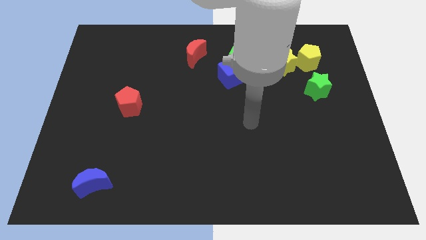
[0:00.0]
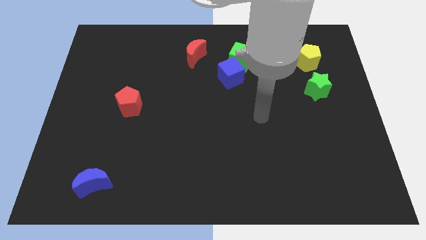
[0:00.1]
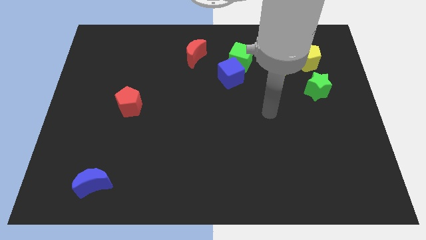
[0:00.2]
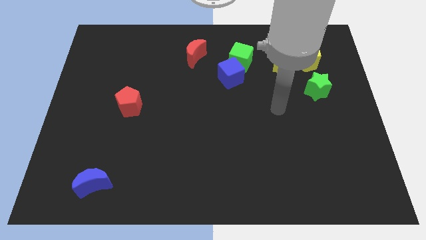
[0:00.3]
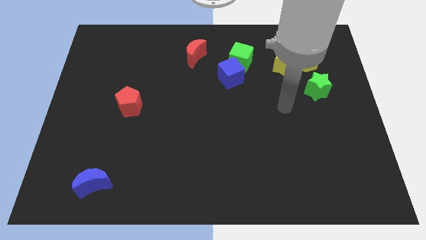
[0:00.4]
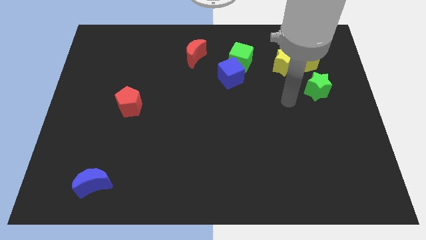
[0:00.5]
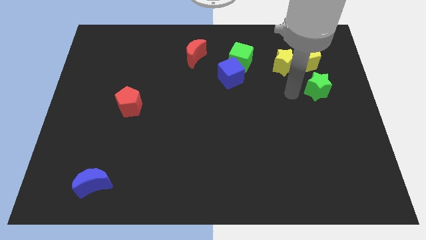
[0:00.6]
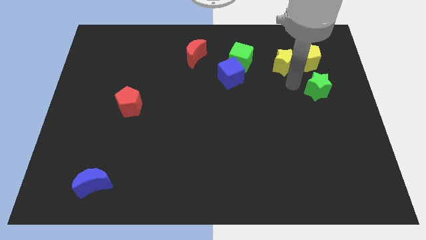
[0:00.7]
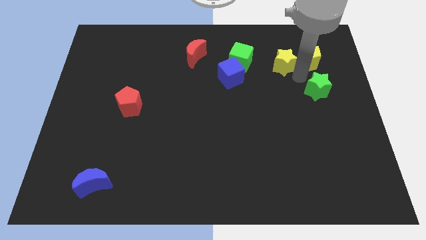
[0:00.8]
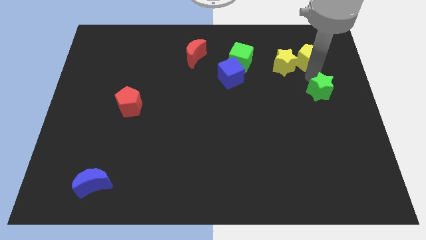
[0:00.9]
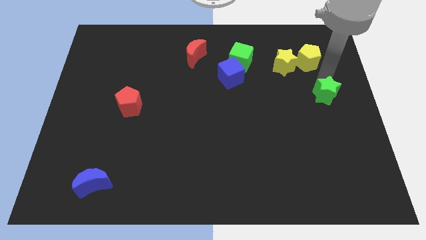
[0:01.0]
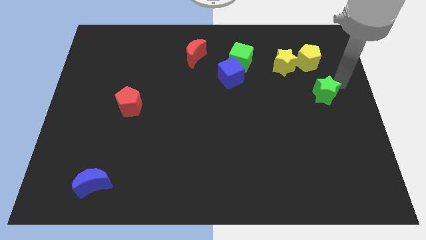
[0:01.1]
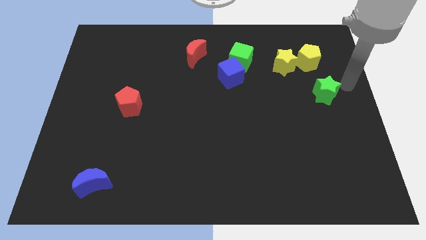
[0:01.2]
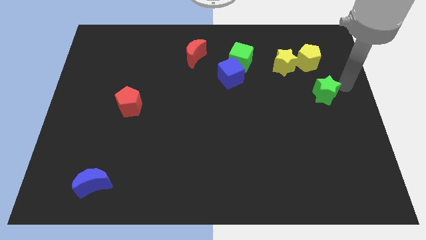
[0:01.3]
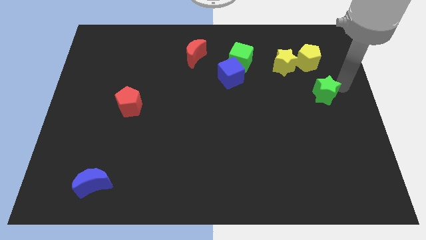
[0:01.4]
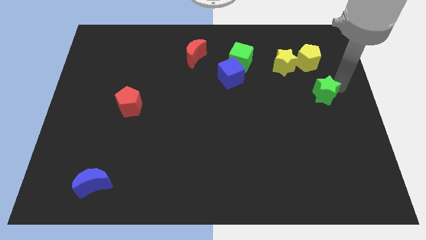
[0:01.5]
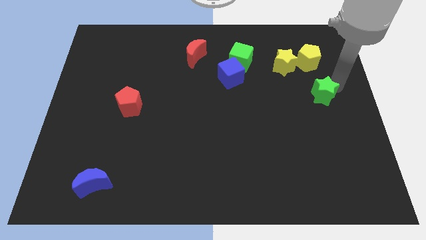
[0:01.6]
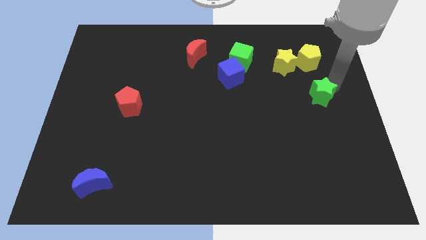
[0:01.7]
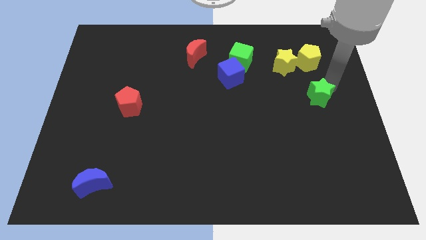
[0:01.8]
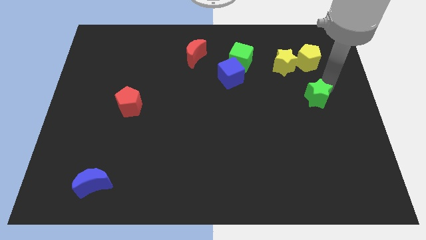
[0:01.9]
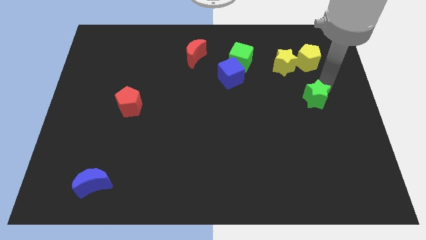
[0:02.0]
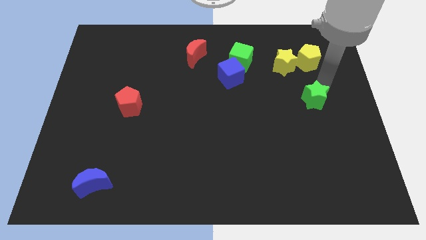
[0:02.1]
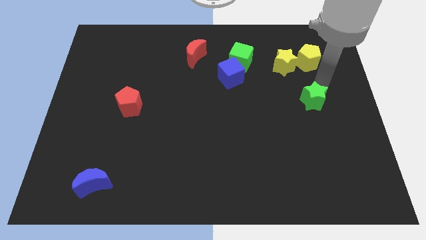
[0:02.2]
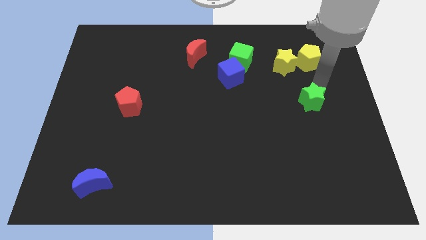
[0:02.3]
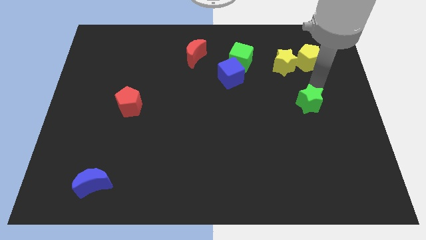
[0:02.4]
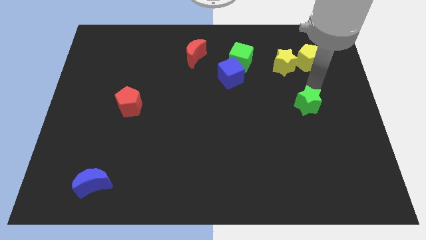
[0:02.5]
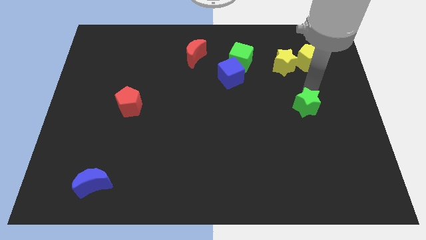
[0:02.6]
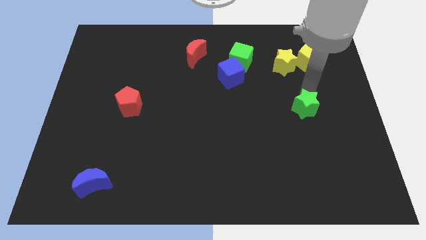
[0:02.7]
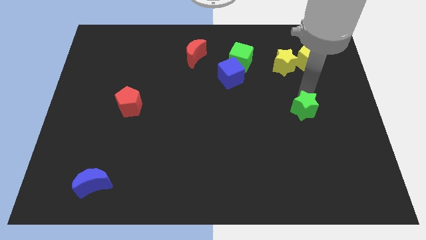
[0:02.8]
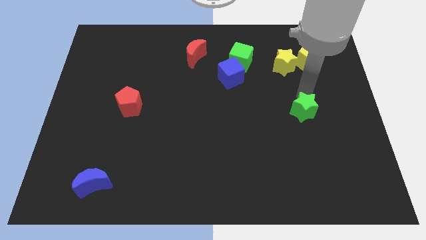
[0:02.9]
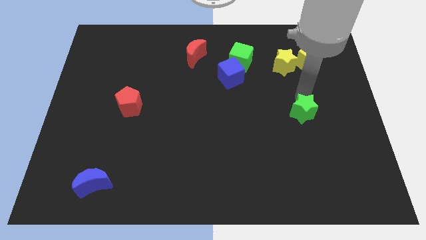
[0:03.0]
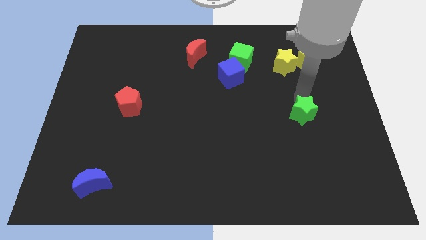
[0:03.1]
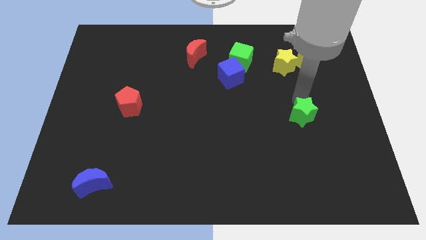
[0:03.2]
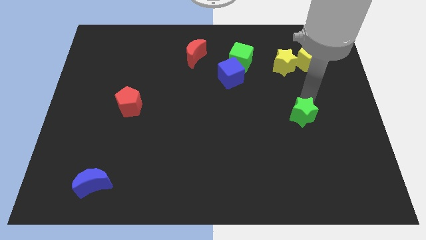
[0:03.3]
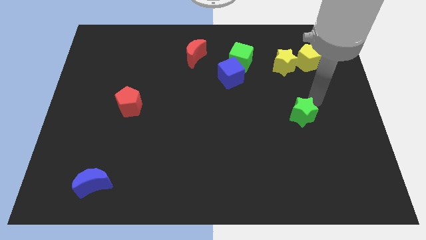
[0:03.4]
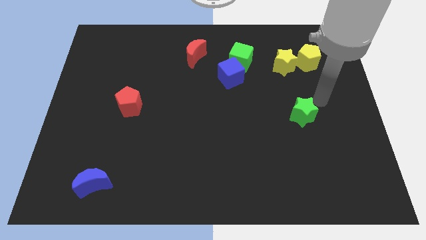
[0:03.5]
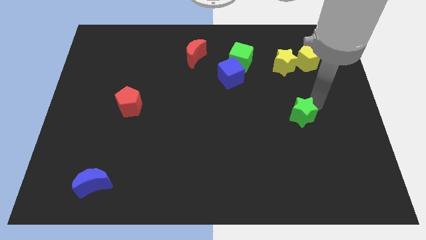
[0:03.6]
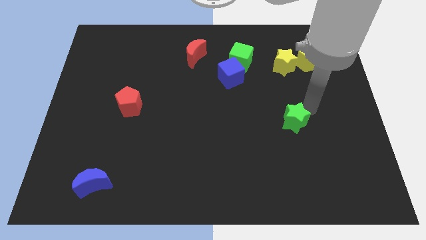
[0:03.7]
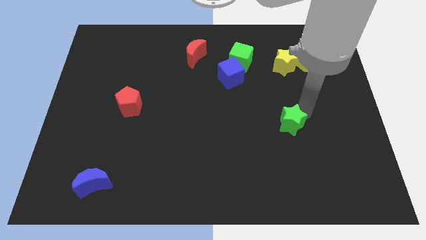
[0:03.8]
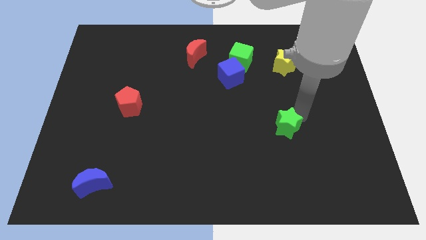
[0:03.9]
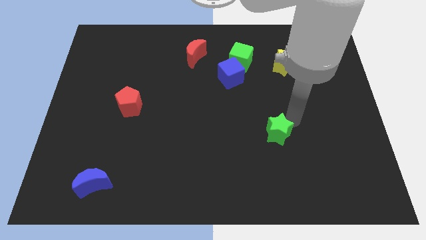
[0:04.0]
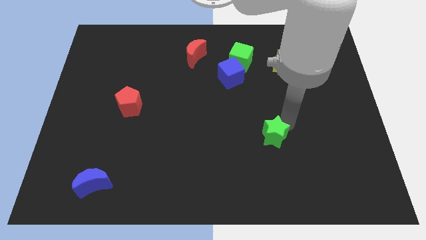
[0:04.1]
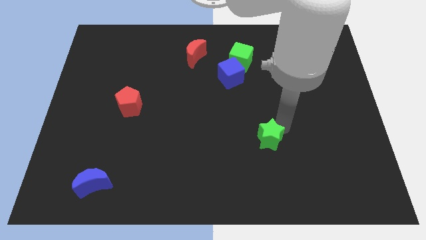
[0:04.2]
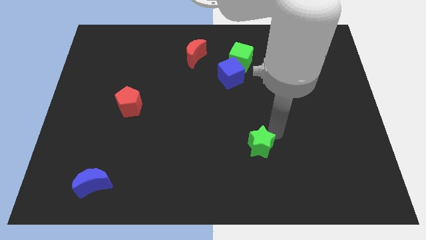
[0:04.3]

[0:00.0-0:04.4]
slide the green star downwards and to the left diagonally

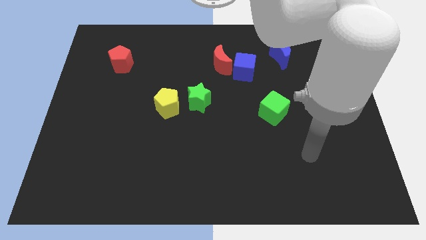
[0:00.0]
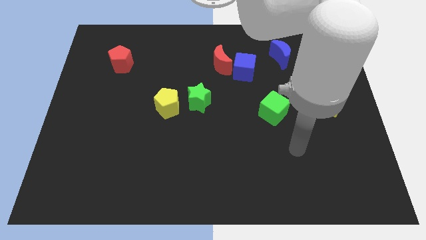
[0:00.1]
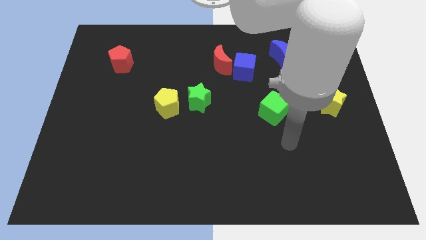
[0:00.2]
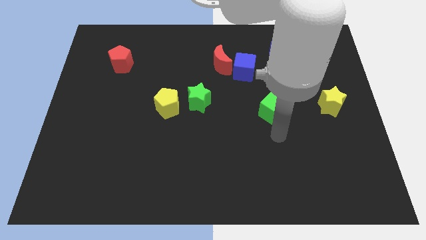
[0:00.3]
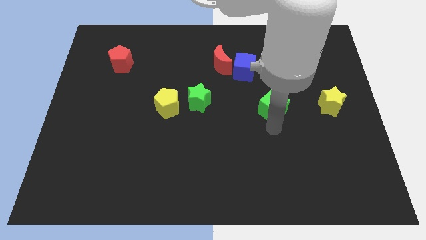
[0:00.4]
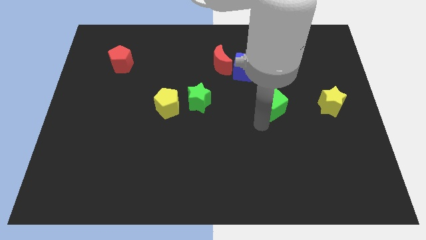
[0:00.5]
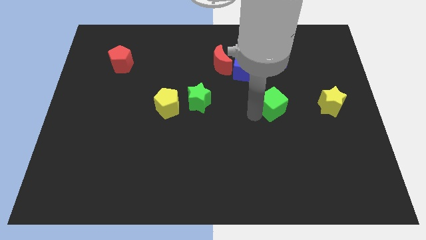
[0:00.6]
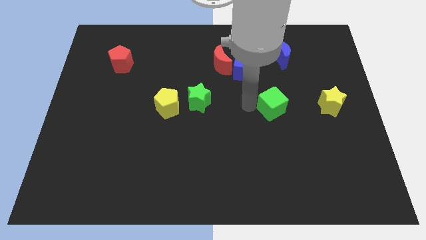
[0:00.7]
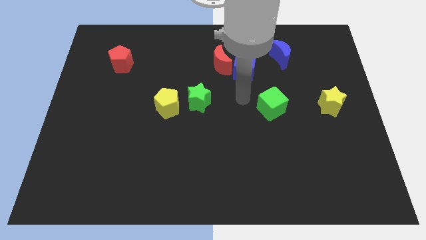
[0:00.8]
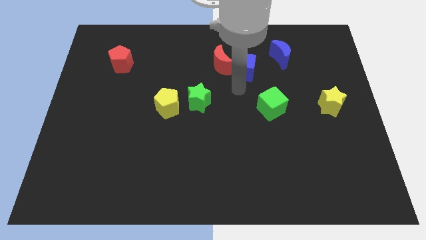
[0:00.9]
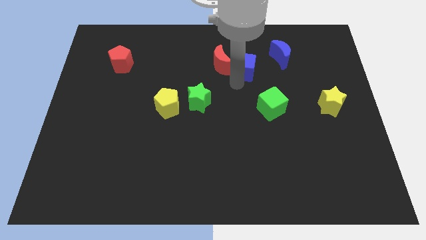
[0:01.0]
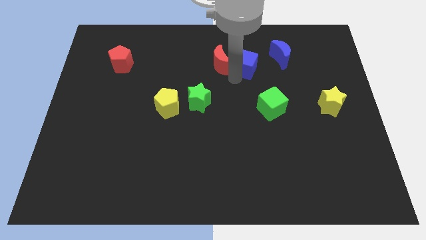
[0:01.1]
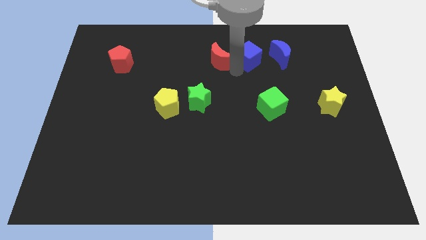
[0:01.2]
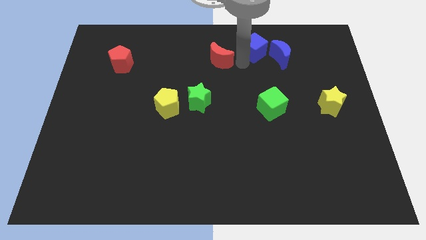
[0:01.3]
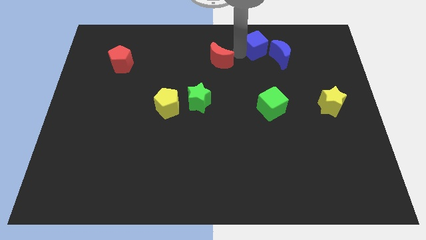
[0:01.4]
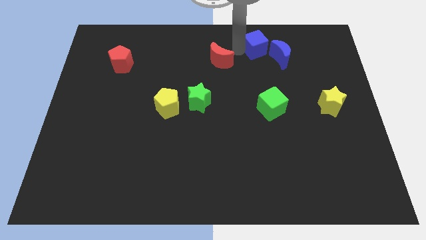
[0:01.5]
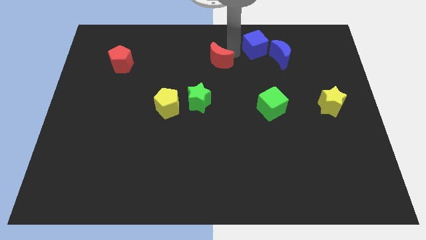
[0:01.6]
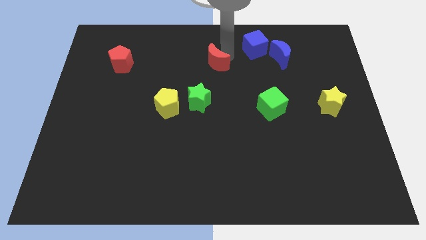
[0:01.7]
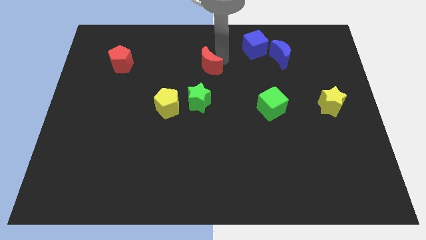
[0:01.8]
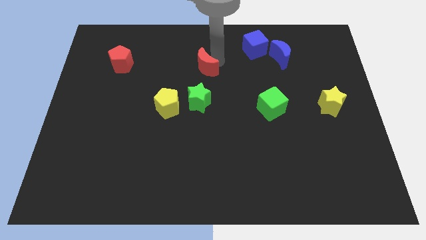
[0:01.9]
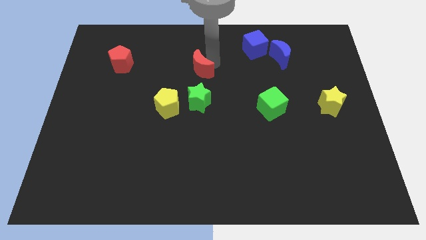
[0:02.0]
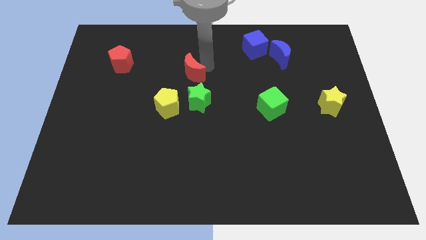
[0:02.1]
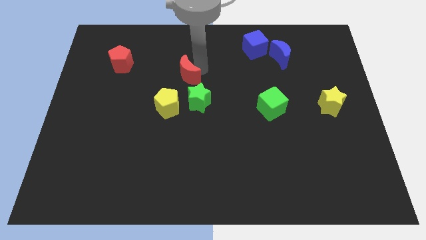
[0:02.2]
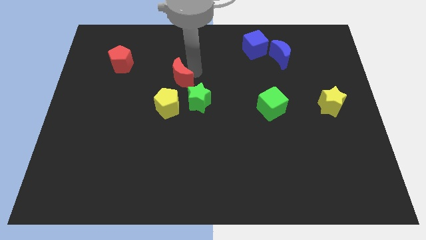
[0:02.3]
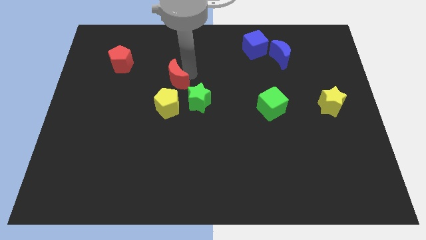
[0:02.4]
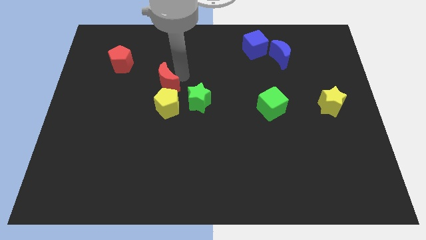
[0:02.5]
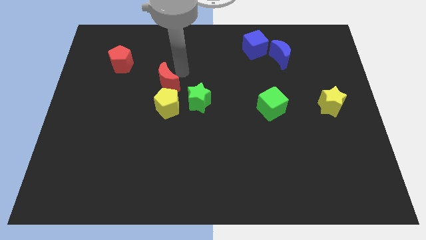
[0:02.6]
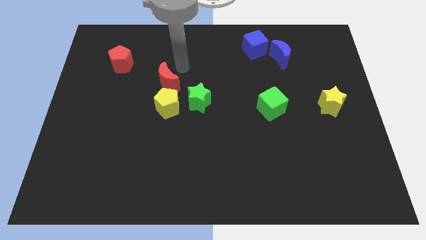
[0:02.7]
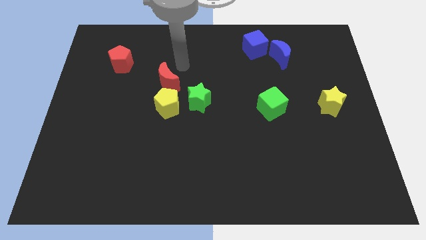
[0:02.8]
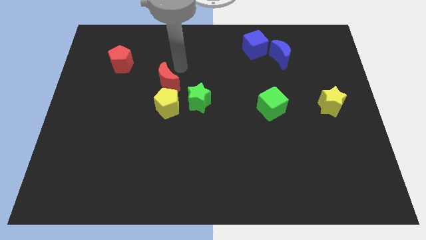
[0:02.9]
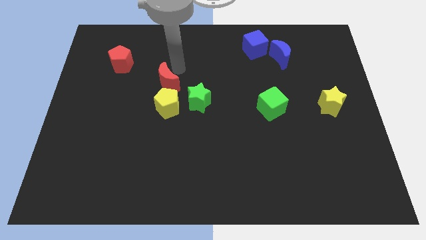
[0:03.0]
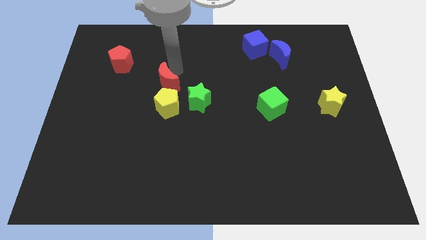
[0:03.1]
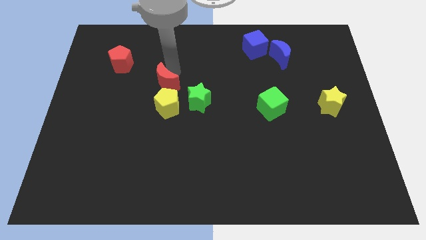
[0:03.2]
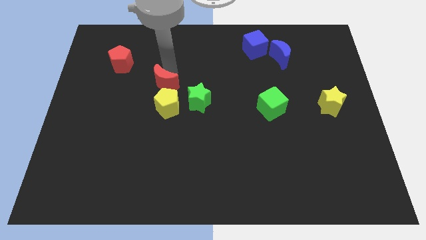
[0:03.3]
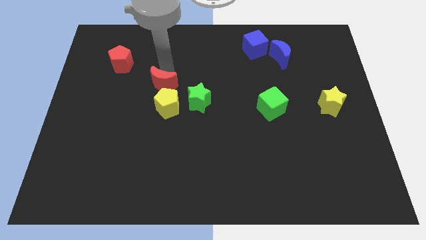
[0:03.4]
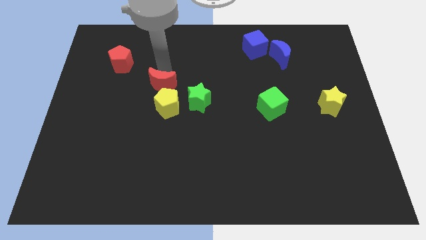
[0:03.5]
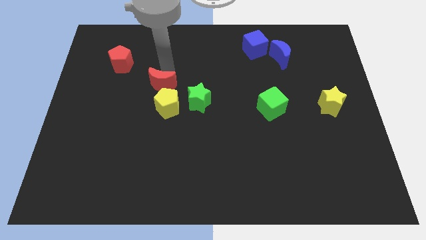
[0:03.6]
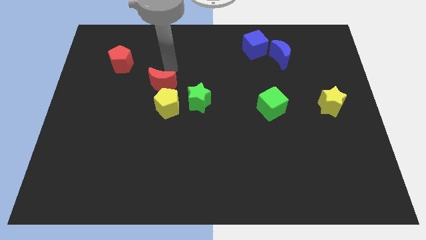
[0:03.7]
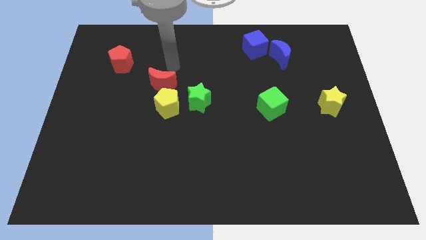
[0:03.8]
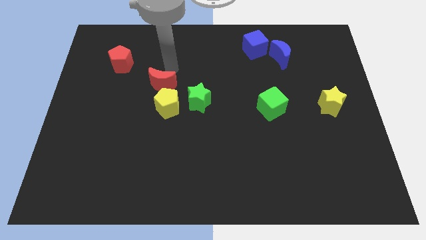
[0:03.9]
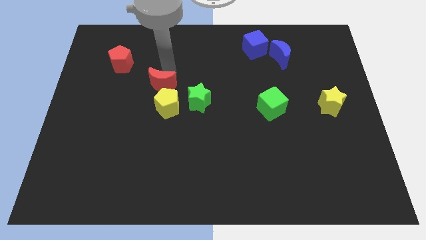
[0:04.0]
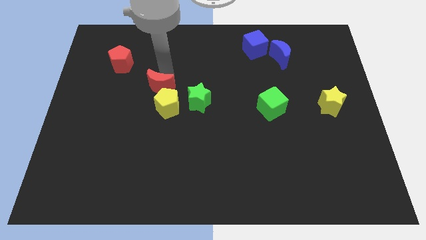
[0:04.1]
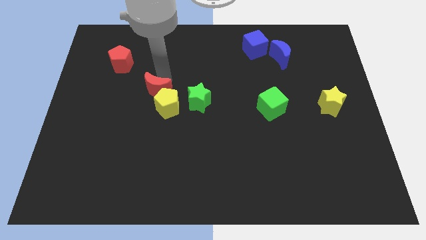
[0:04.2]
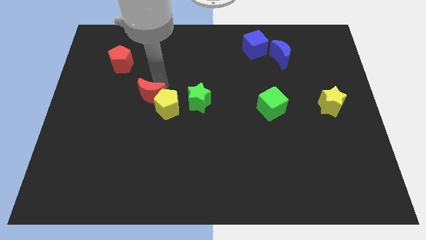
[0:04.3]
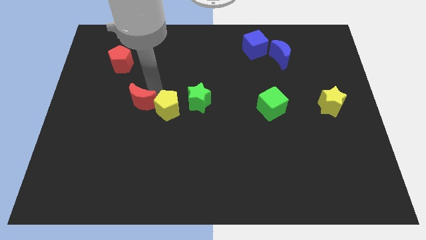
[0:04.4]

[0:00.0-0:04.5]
slide the red moon downwards and left
